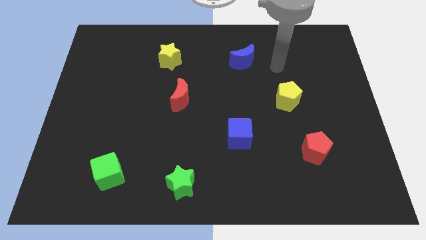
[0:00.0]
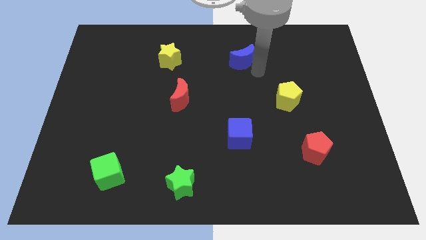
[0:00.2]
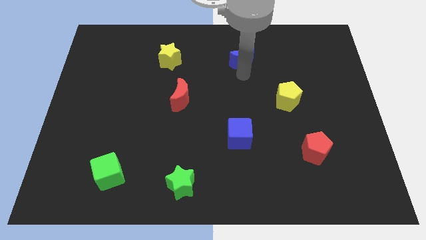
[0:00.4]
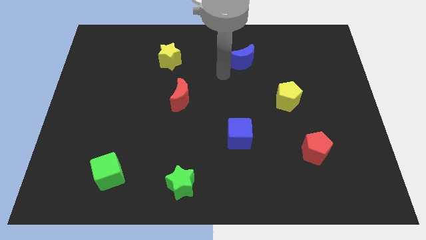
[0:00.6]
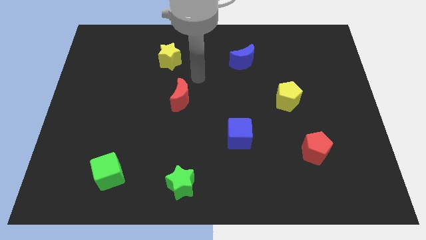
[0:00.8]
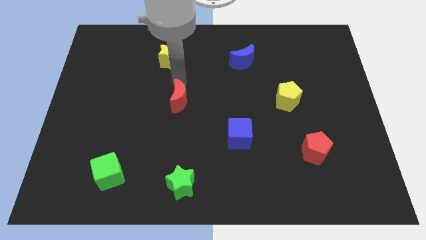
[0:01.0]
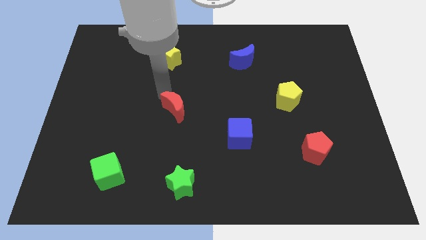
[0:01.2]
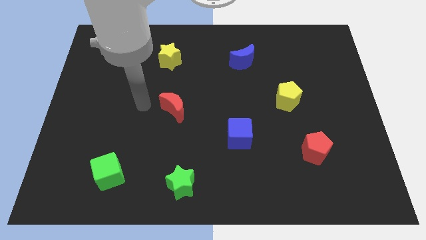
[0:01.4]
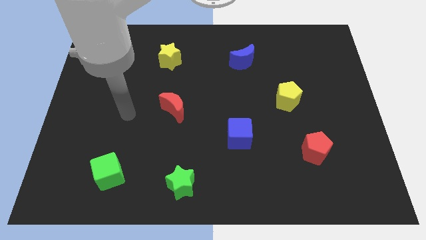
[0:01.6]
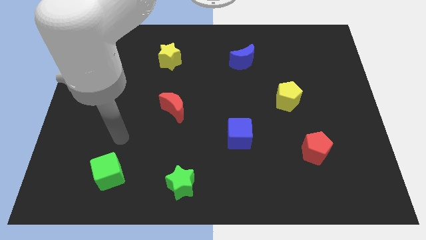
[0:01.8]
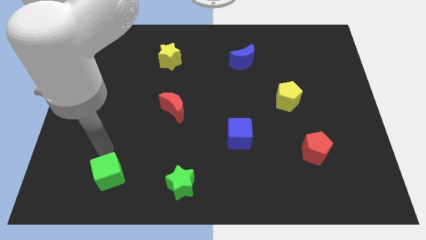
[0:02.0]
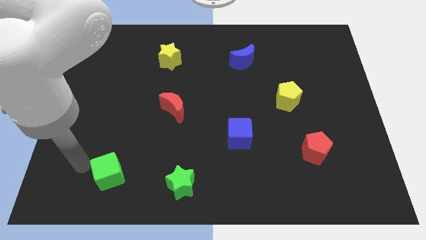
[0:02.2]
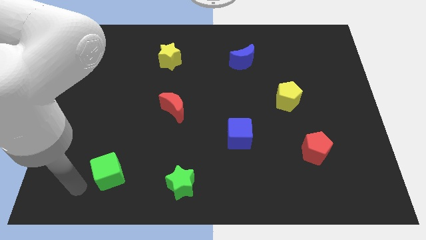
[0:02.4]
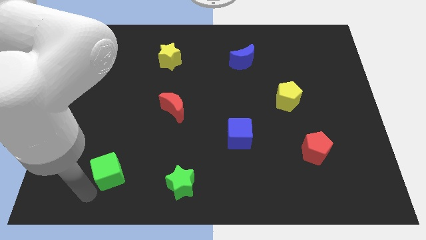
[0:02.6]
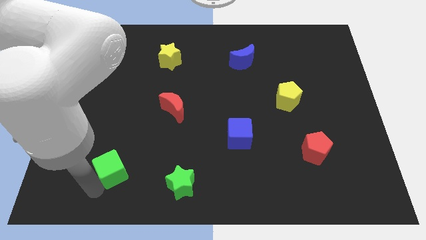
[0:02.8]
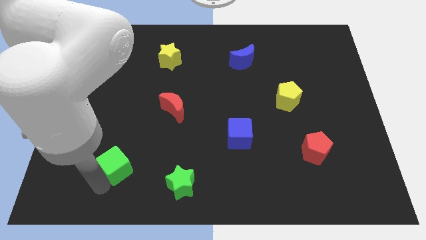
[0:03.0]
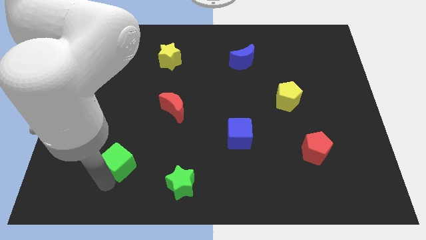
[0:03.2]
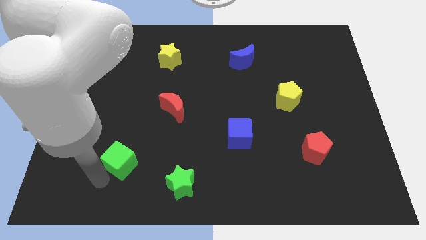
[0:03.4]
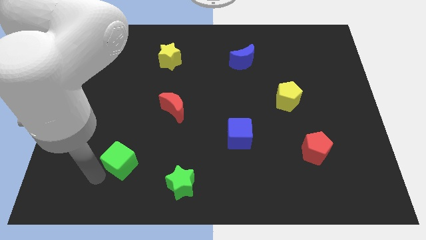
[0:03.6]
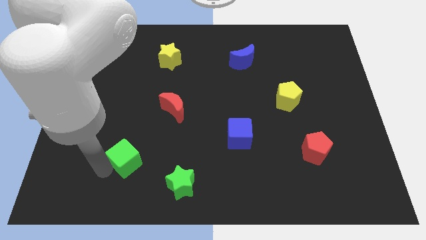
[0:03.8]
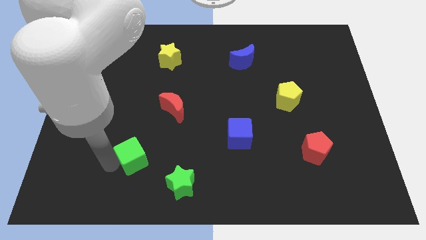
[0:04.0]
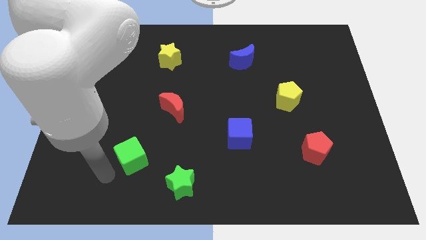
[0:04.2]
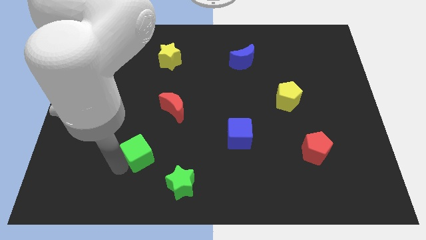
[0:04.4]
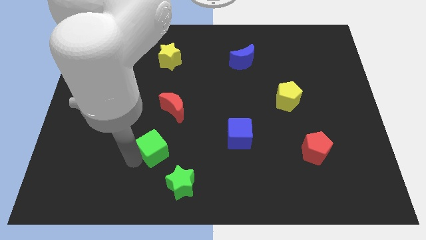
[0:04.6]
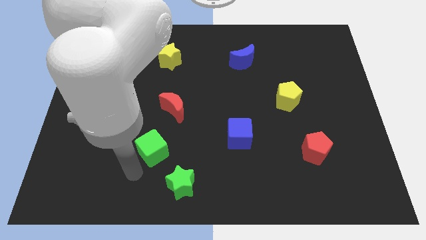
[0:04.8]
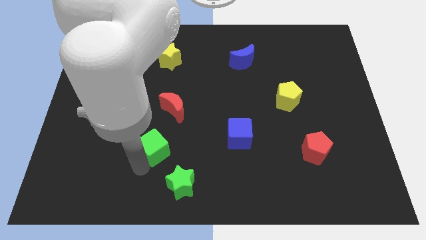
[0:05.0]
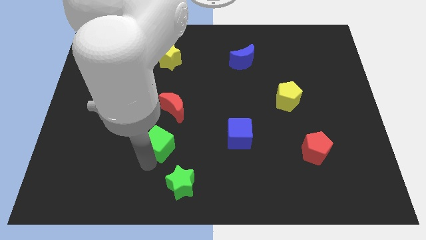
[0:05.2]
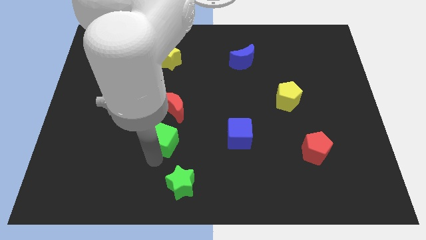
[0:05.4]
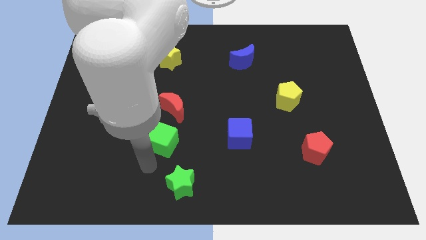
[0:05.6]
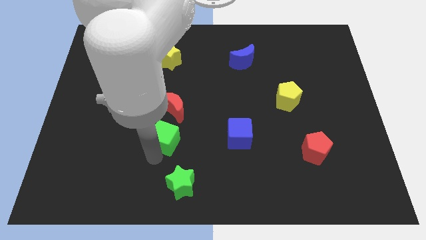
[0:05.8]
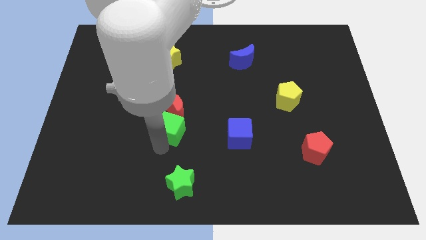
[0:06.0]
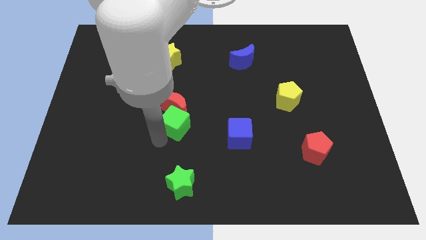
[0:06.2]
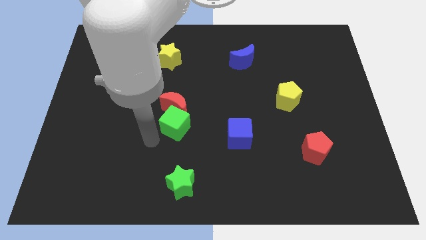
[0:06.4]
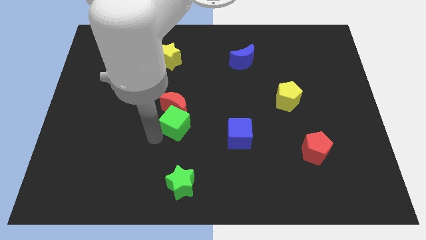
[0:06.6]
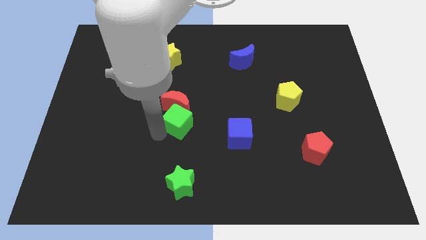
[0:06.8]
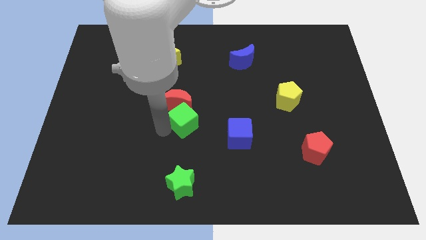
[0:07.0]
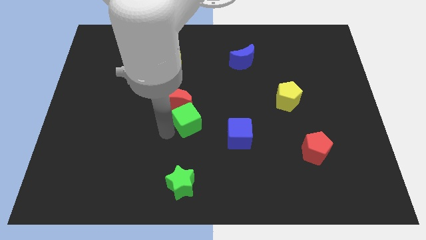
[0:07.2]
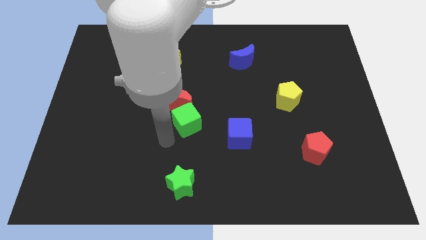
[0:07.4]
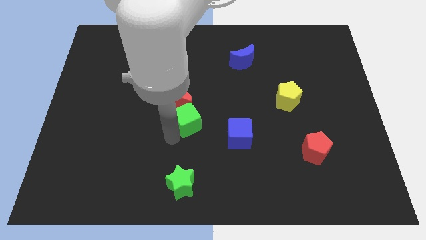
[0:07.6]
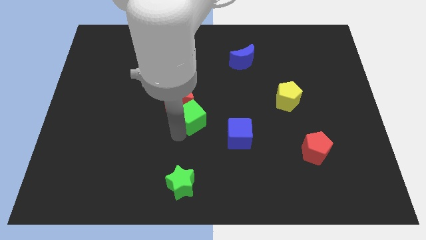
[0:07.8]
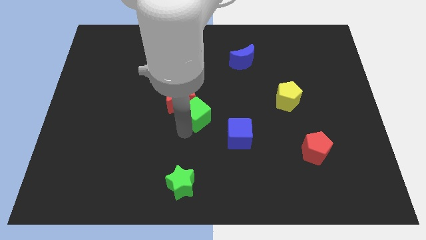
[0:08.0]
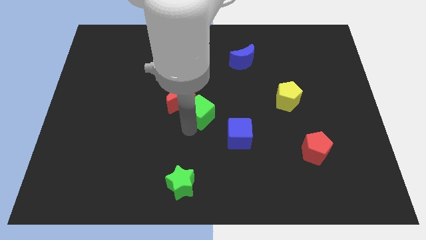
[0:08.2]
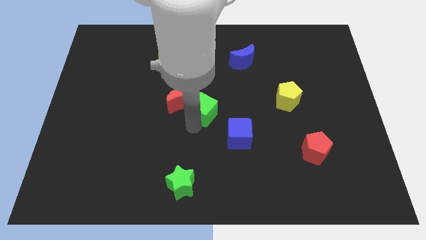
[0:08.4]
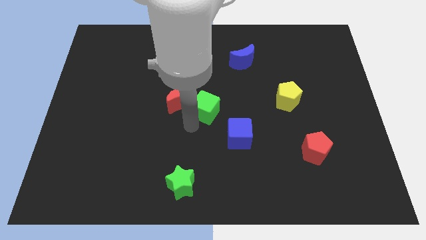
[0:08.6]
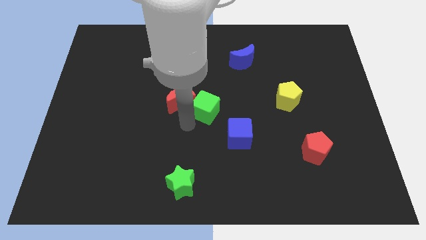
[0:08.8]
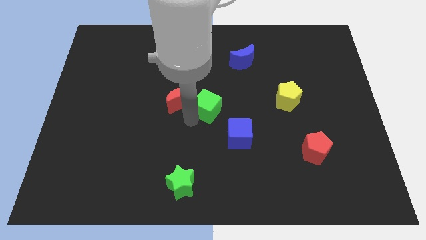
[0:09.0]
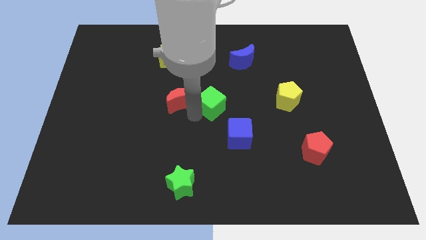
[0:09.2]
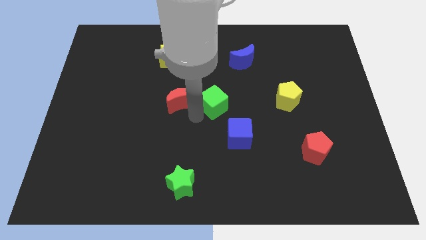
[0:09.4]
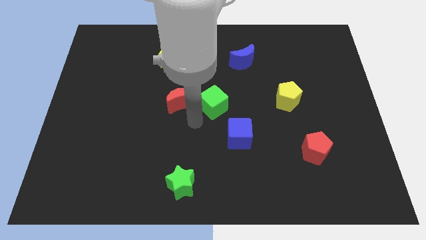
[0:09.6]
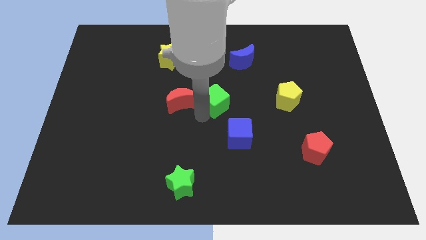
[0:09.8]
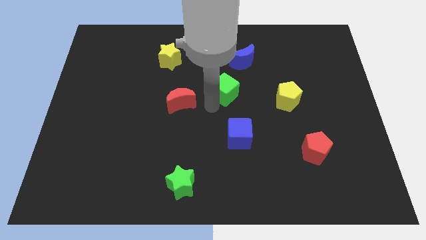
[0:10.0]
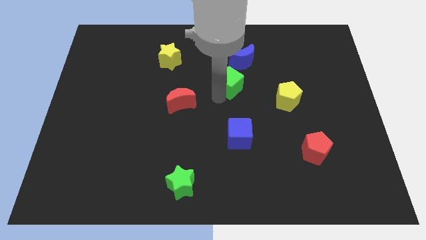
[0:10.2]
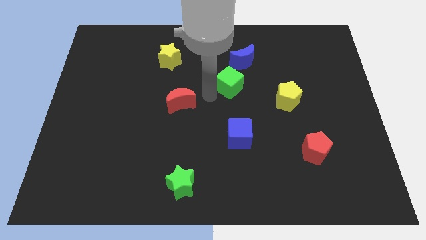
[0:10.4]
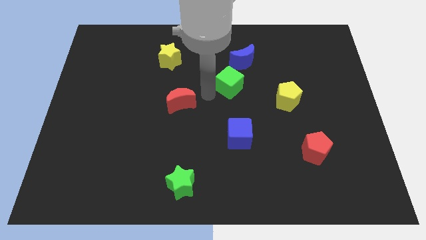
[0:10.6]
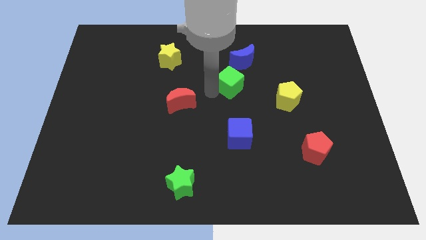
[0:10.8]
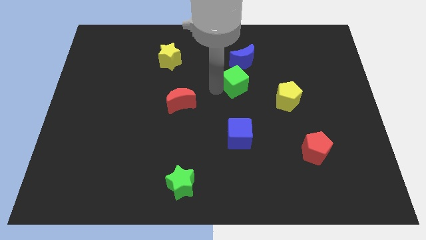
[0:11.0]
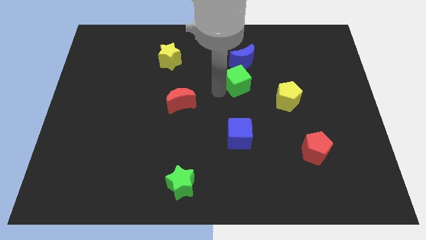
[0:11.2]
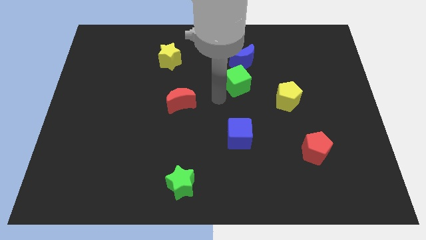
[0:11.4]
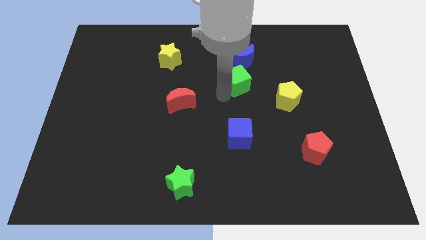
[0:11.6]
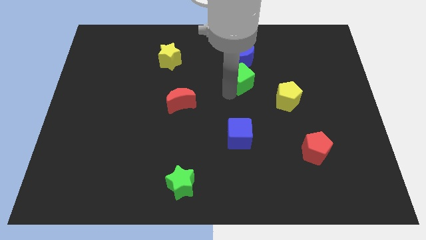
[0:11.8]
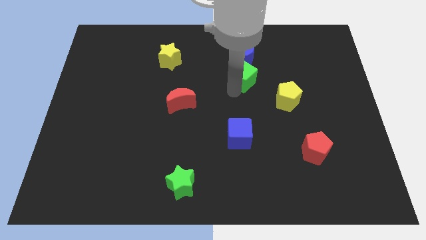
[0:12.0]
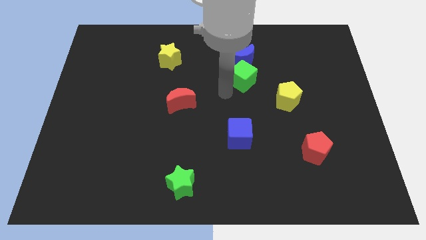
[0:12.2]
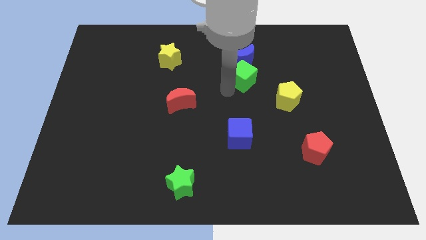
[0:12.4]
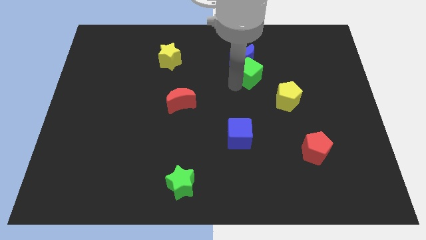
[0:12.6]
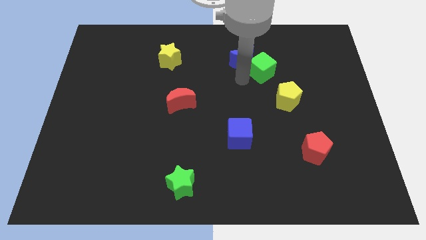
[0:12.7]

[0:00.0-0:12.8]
move the green cube to the right side of the blue moon
